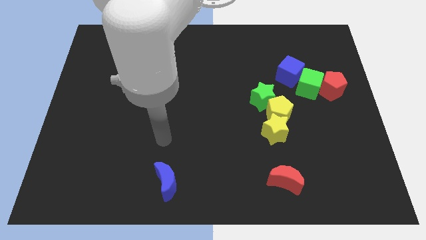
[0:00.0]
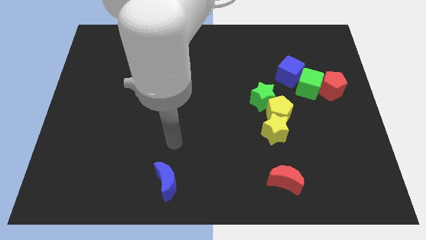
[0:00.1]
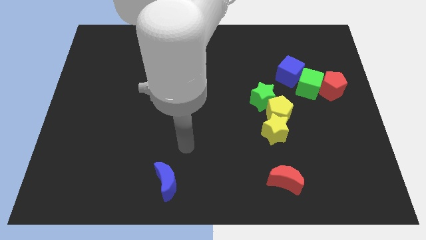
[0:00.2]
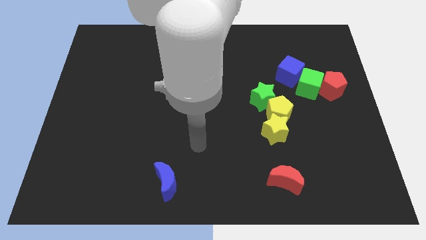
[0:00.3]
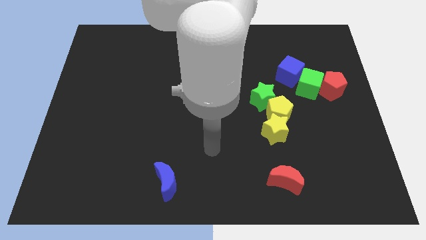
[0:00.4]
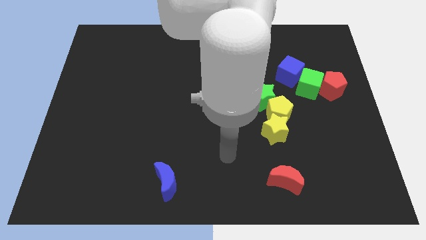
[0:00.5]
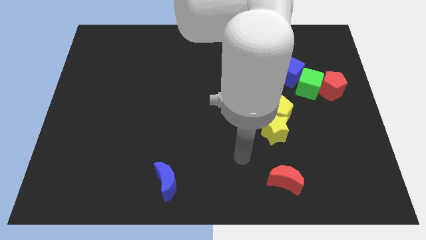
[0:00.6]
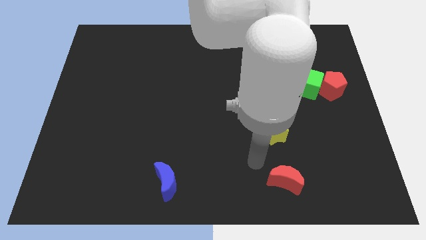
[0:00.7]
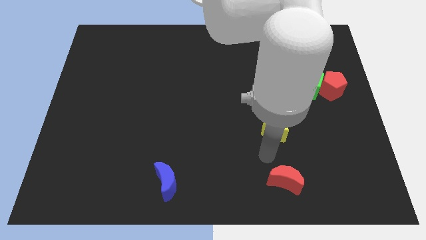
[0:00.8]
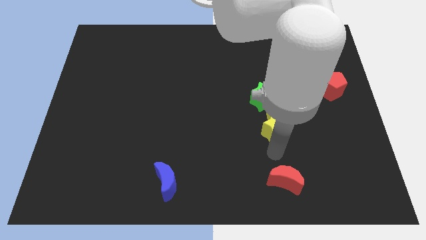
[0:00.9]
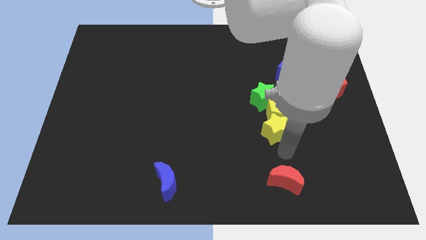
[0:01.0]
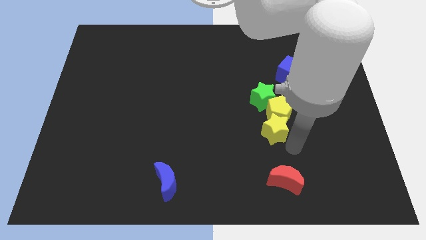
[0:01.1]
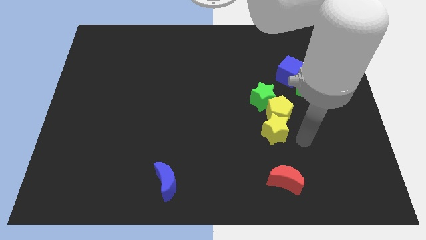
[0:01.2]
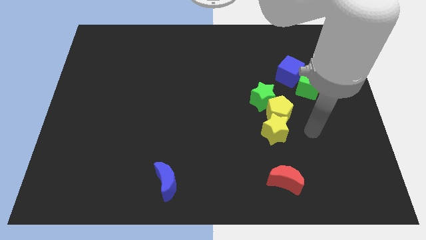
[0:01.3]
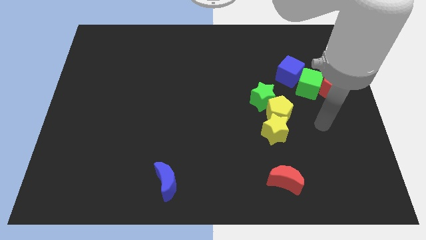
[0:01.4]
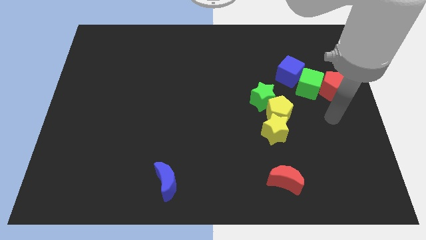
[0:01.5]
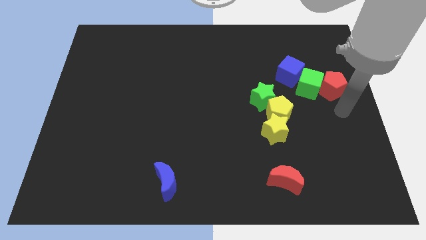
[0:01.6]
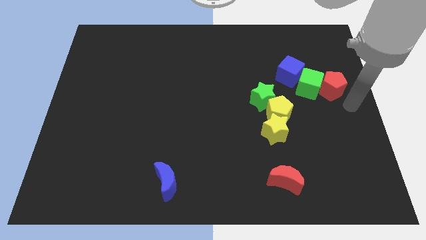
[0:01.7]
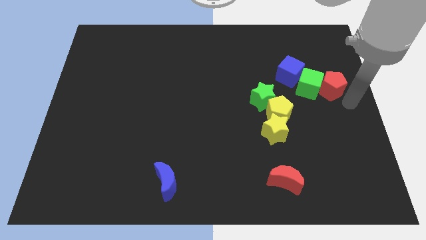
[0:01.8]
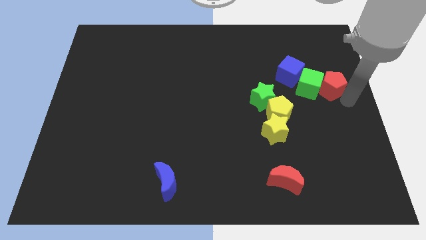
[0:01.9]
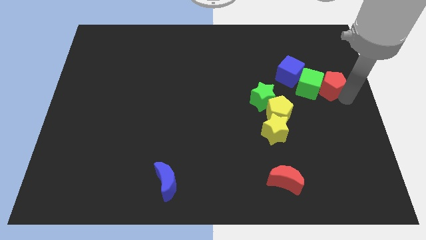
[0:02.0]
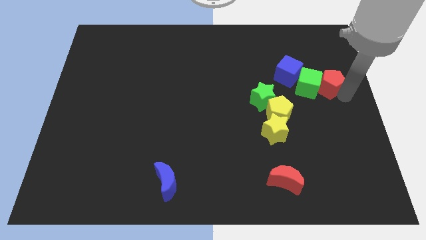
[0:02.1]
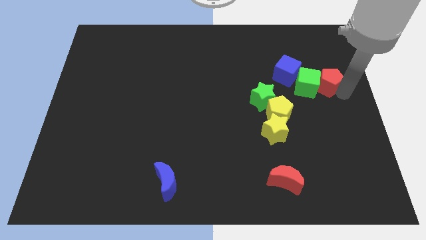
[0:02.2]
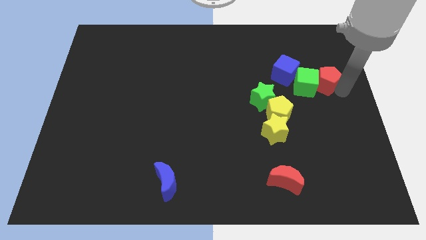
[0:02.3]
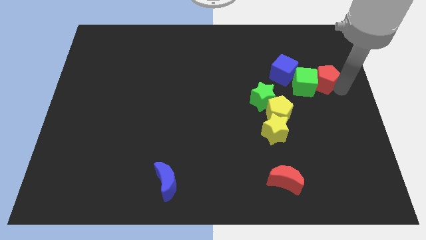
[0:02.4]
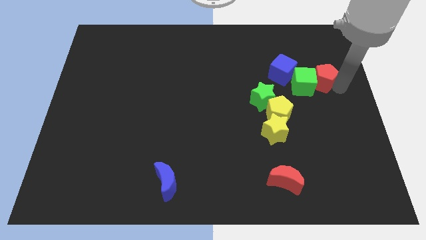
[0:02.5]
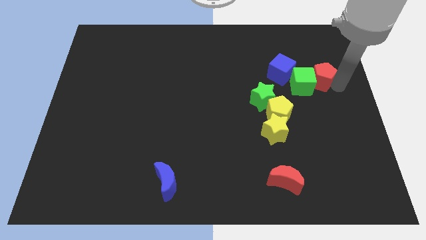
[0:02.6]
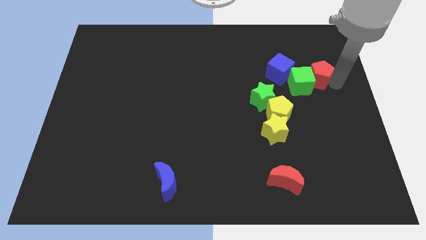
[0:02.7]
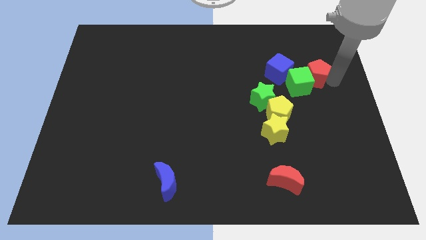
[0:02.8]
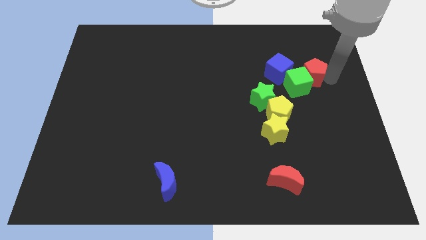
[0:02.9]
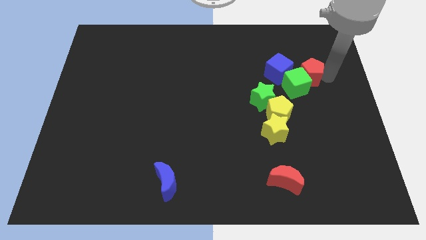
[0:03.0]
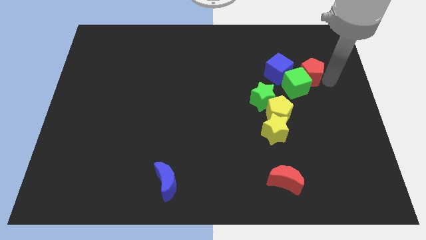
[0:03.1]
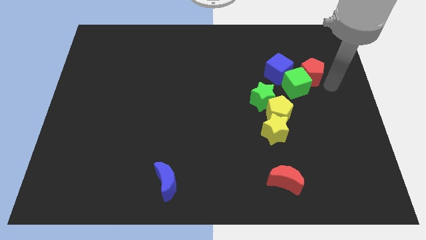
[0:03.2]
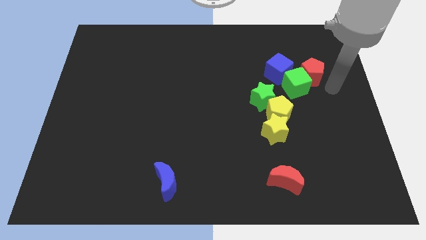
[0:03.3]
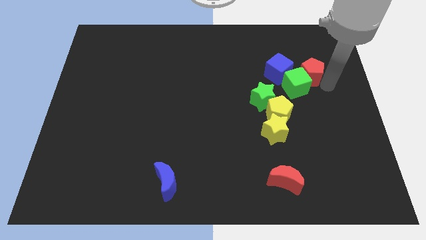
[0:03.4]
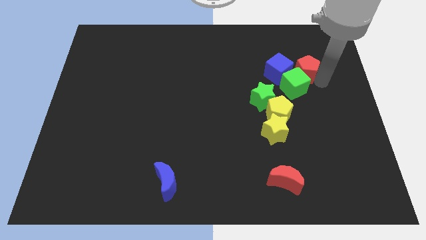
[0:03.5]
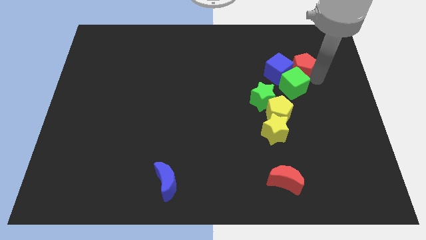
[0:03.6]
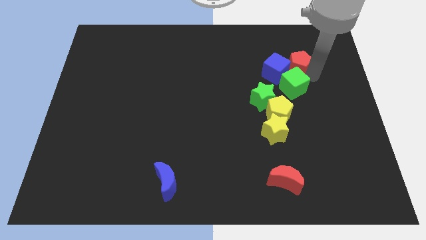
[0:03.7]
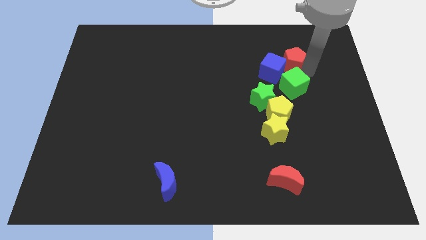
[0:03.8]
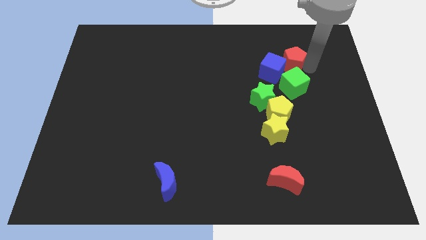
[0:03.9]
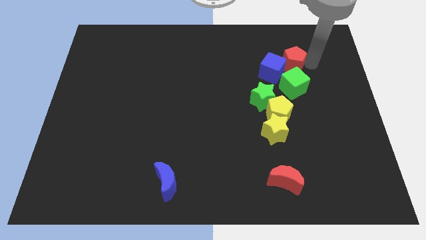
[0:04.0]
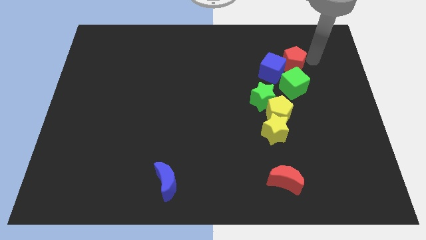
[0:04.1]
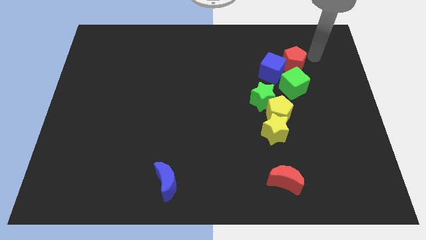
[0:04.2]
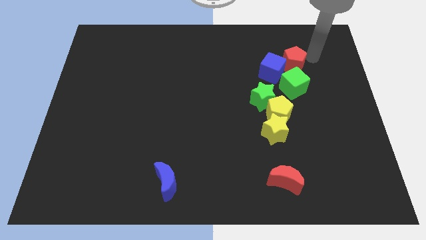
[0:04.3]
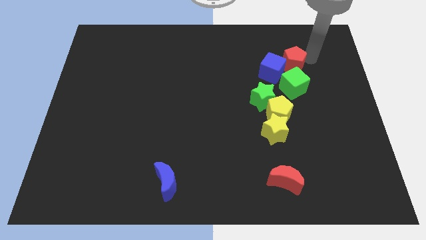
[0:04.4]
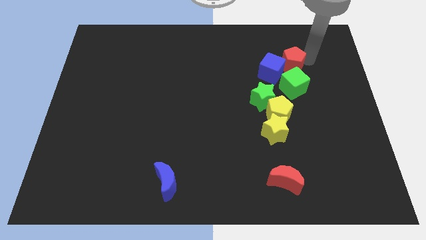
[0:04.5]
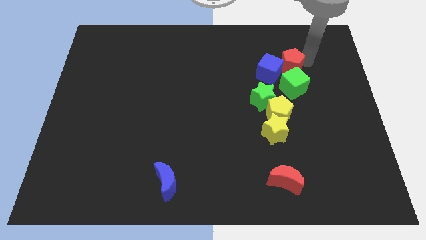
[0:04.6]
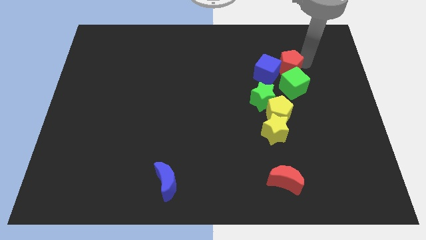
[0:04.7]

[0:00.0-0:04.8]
move the red pentagon to the top left of the green cube

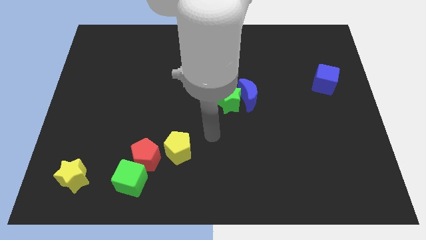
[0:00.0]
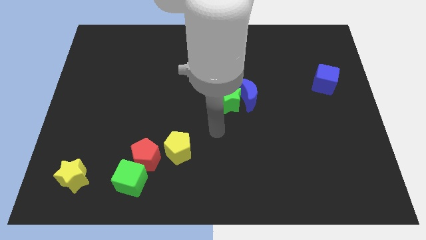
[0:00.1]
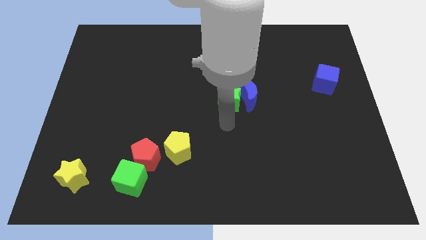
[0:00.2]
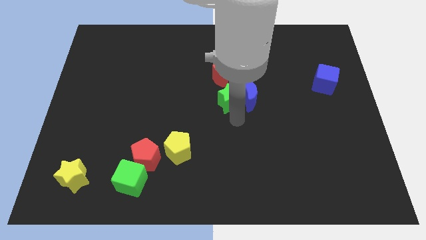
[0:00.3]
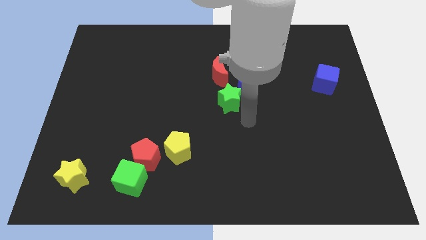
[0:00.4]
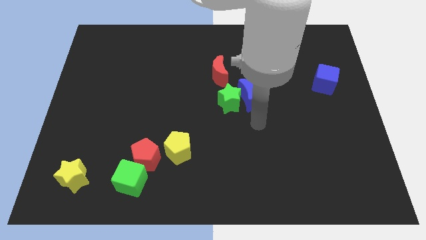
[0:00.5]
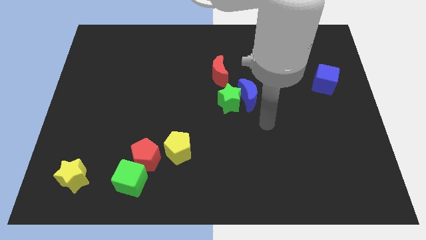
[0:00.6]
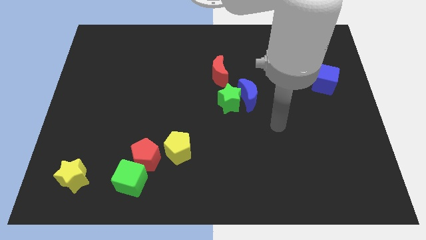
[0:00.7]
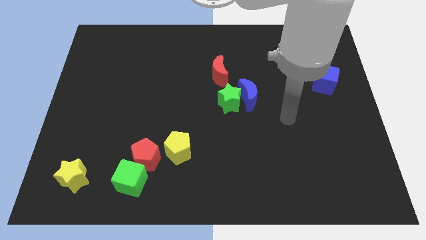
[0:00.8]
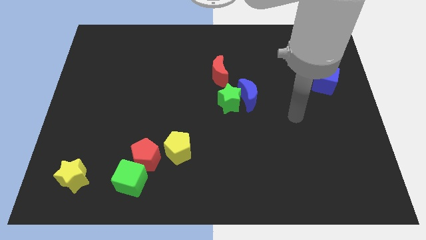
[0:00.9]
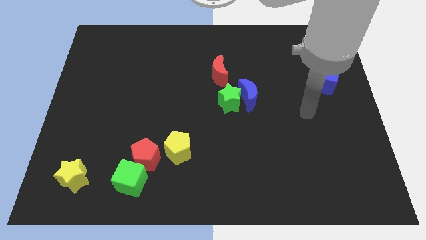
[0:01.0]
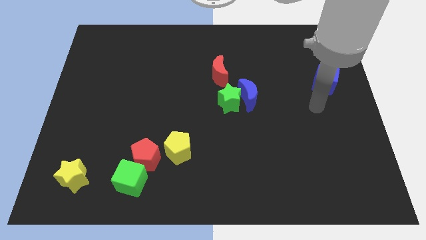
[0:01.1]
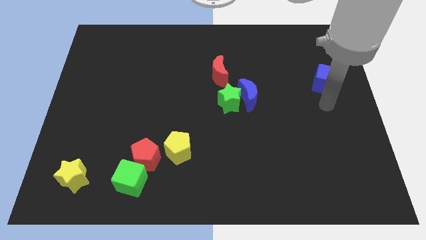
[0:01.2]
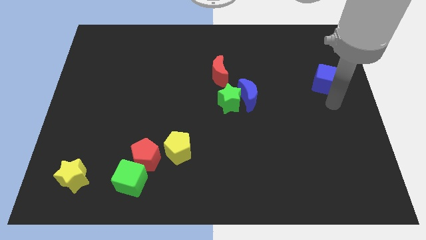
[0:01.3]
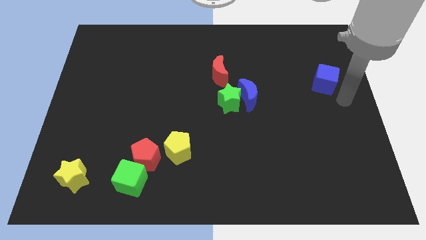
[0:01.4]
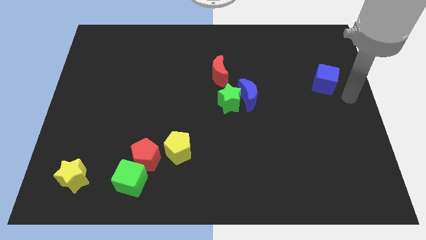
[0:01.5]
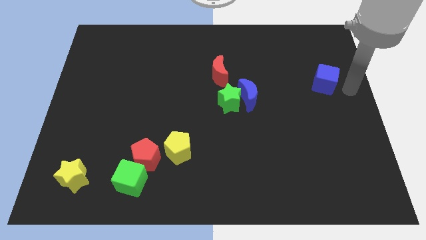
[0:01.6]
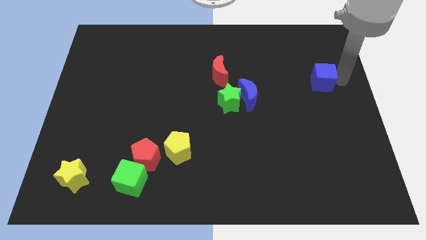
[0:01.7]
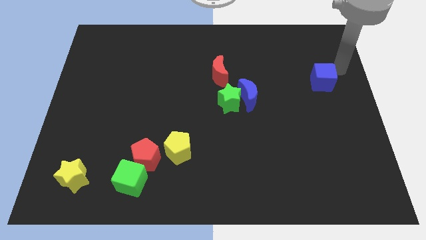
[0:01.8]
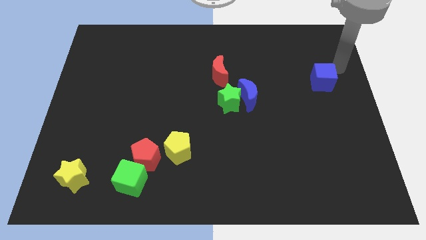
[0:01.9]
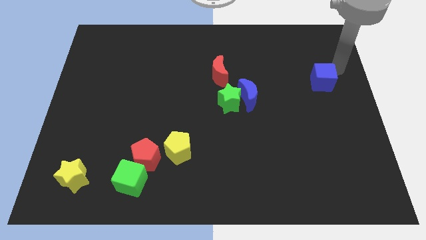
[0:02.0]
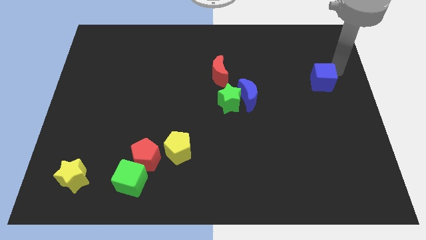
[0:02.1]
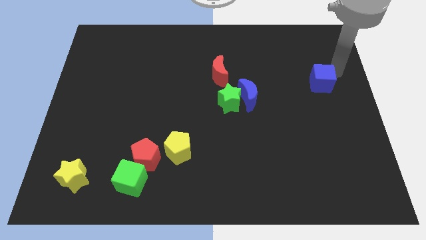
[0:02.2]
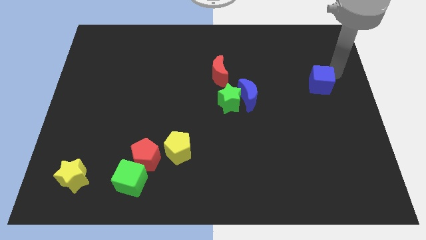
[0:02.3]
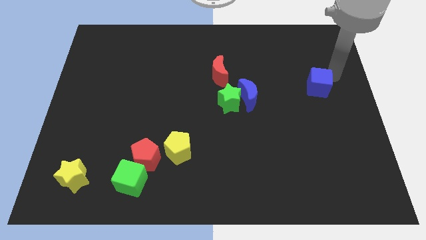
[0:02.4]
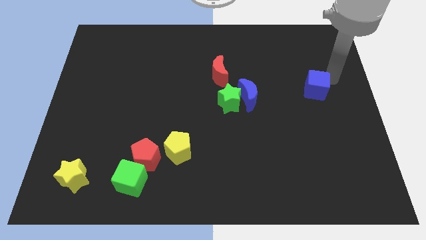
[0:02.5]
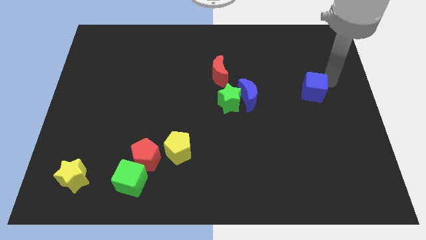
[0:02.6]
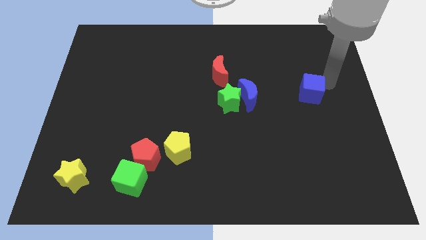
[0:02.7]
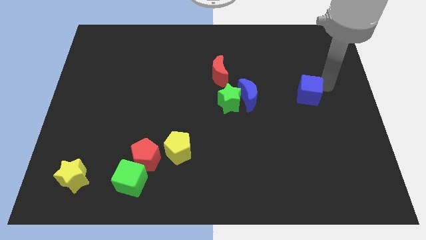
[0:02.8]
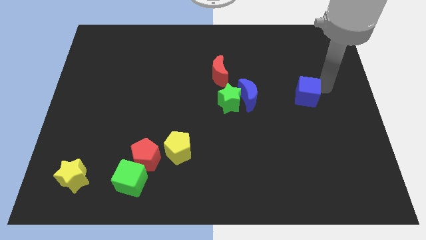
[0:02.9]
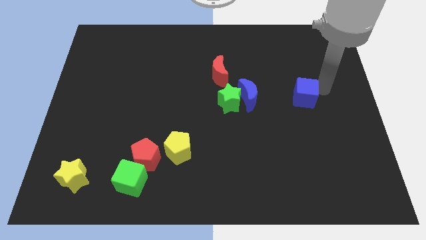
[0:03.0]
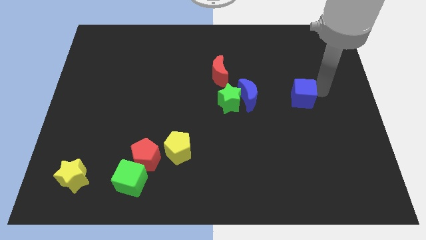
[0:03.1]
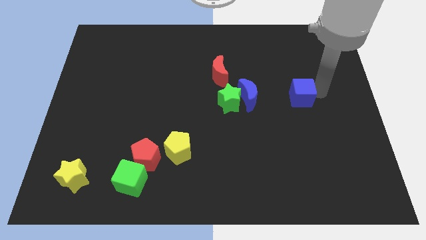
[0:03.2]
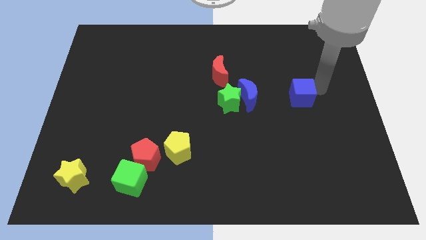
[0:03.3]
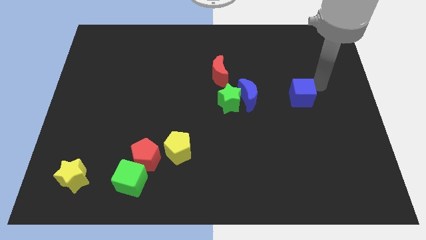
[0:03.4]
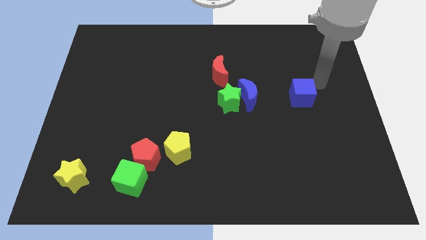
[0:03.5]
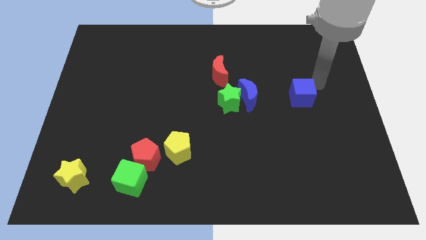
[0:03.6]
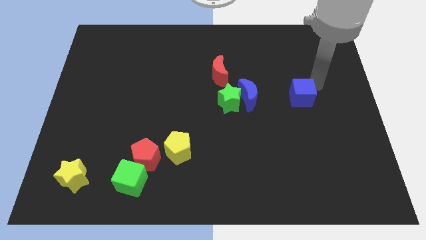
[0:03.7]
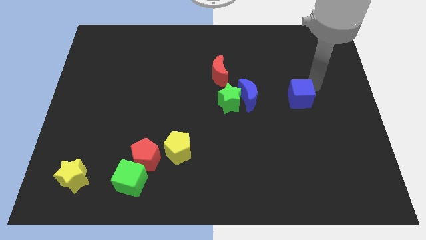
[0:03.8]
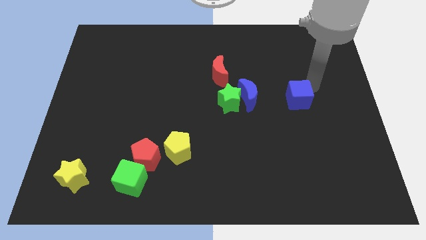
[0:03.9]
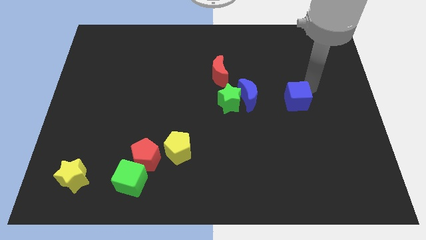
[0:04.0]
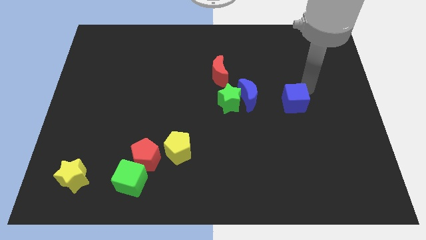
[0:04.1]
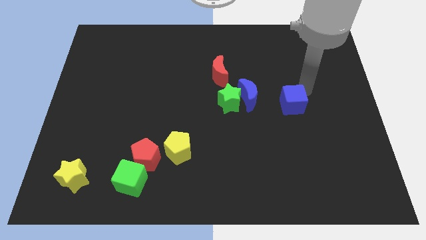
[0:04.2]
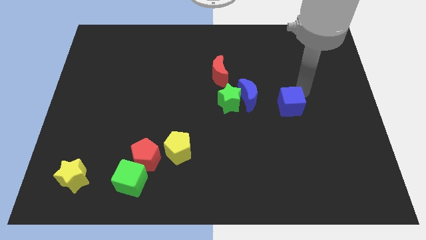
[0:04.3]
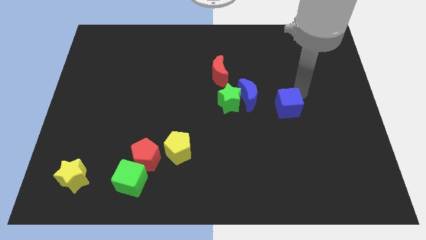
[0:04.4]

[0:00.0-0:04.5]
push the blue cube to the bottom right side of the blue moon
